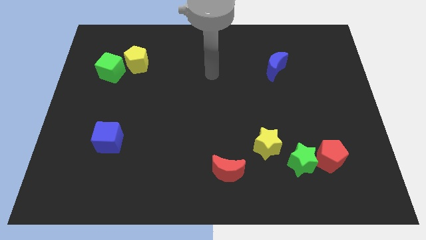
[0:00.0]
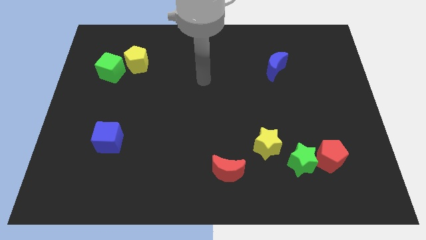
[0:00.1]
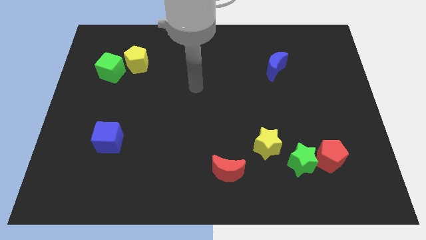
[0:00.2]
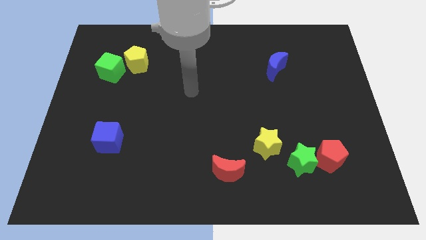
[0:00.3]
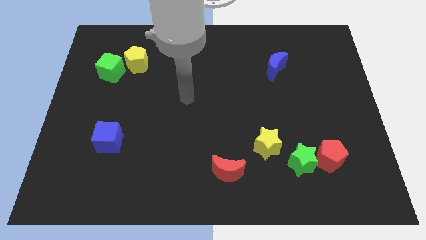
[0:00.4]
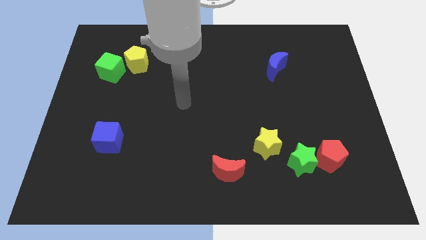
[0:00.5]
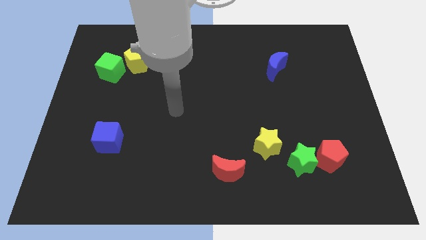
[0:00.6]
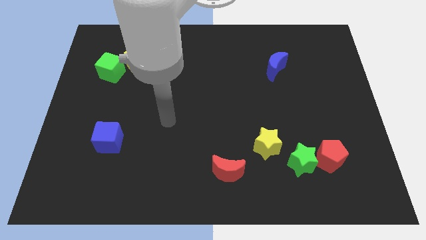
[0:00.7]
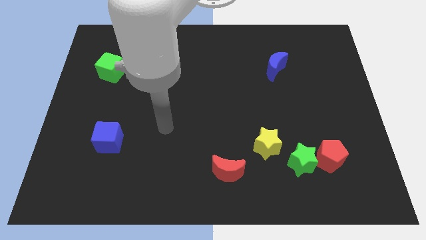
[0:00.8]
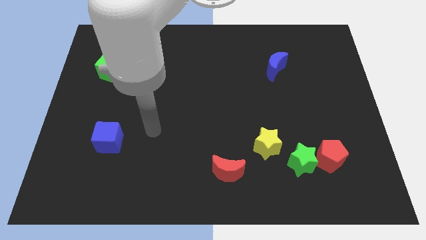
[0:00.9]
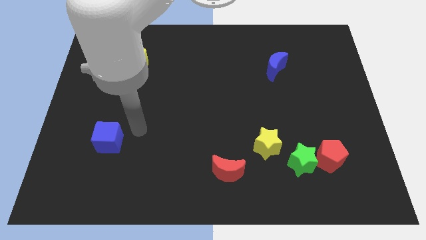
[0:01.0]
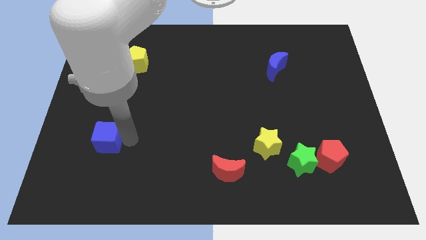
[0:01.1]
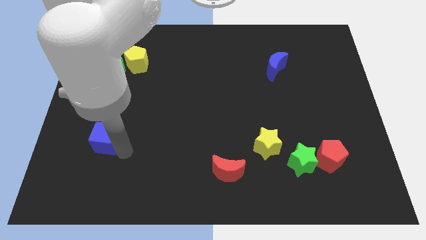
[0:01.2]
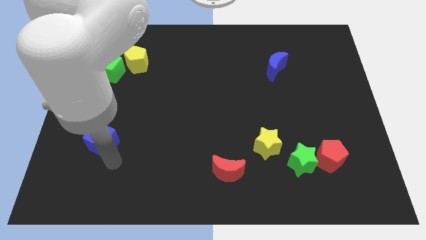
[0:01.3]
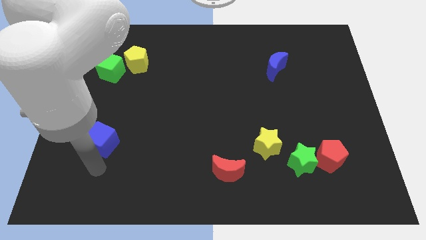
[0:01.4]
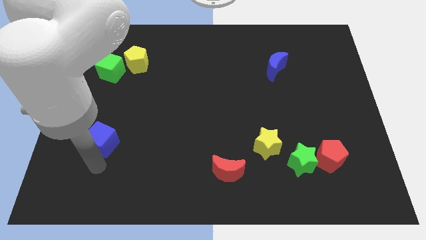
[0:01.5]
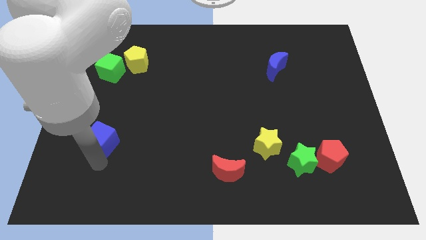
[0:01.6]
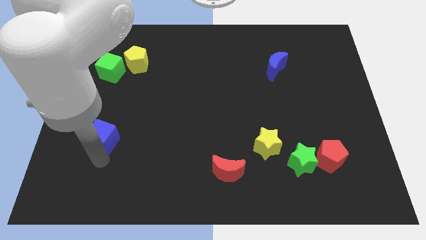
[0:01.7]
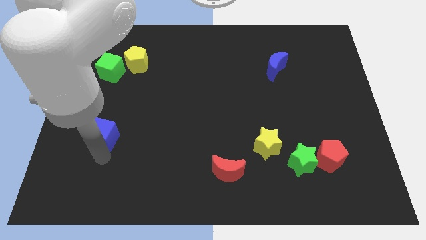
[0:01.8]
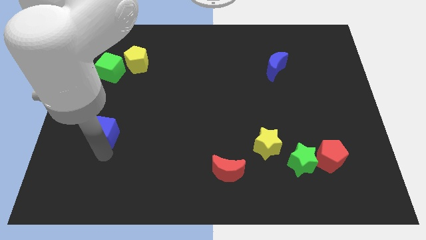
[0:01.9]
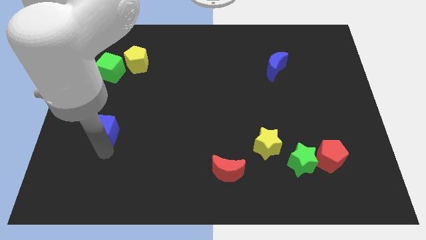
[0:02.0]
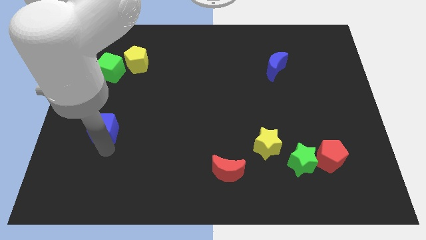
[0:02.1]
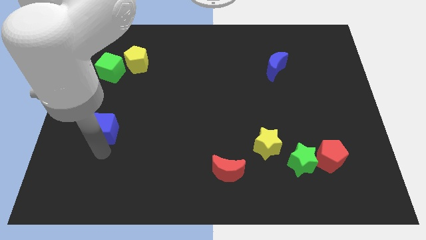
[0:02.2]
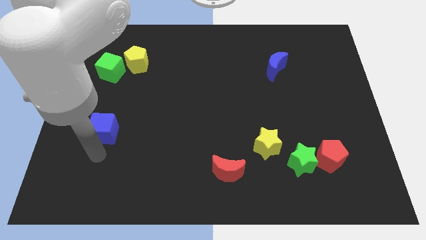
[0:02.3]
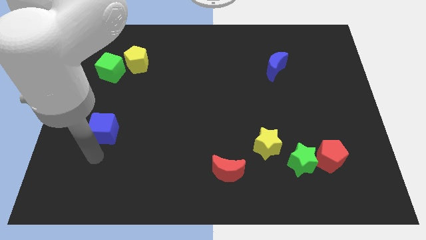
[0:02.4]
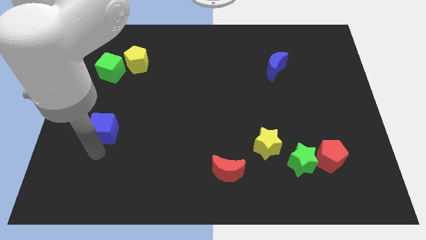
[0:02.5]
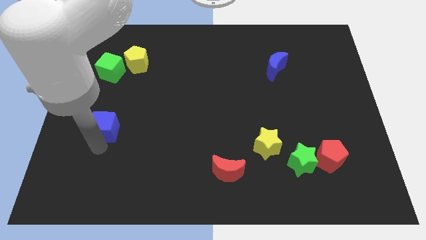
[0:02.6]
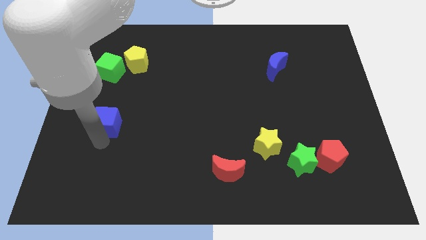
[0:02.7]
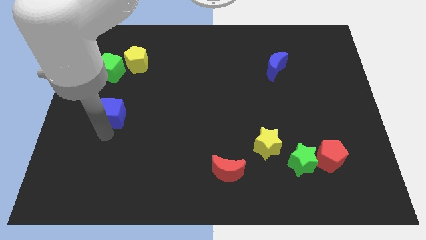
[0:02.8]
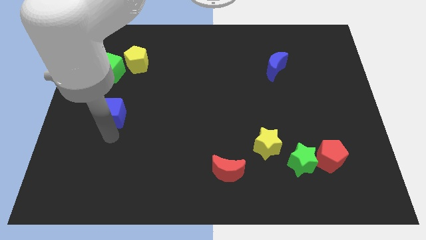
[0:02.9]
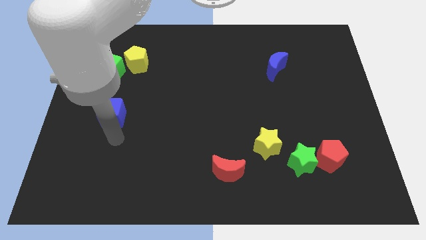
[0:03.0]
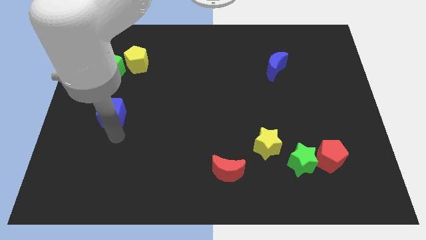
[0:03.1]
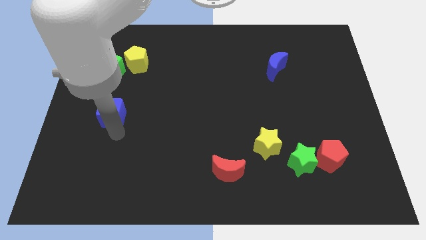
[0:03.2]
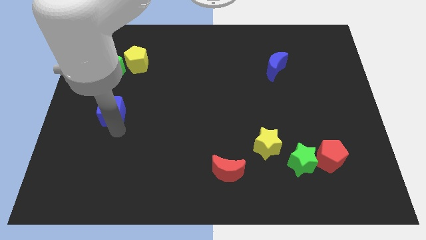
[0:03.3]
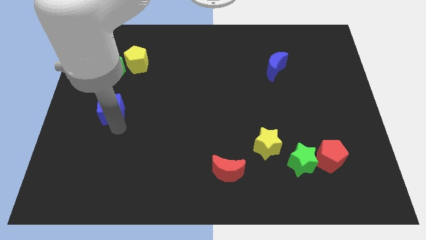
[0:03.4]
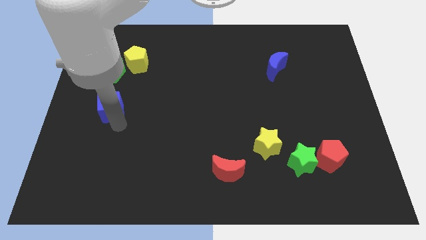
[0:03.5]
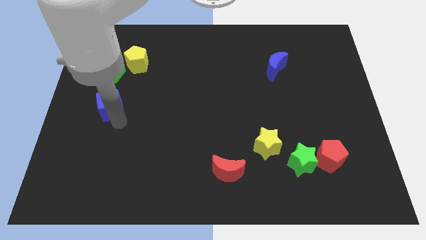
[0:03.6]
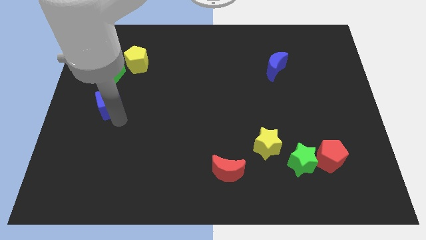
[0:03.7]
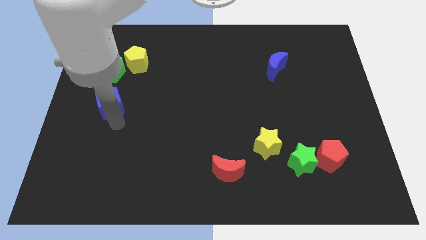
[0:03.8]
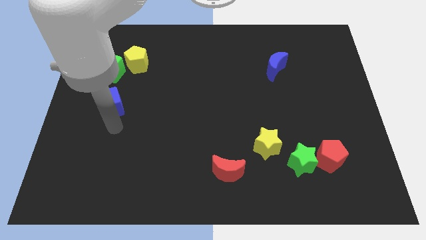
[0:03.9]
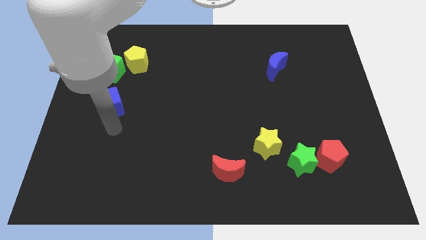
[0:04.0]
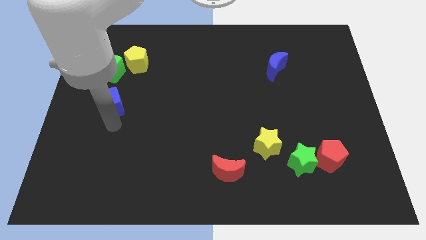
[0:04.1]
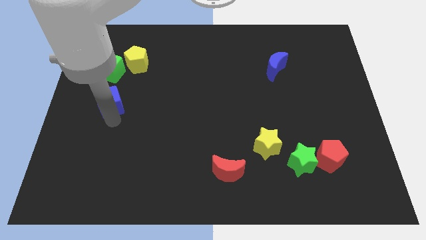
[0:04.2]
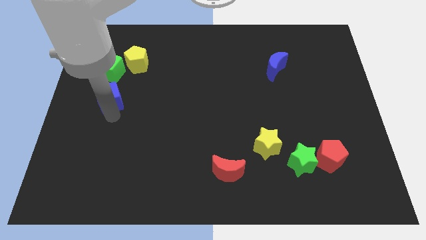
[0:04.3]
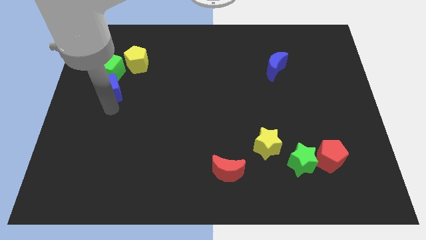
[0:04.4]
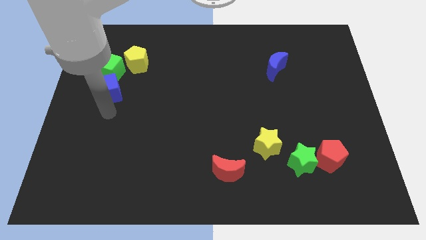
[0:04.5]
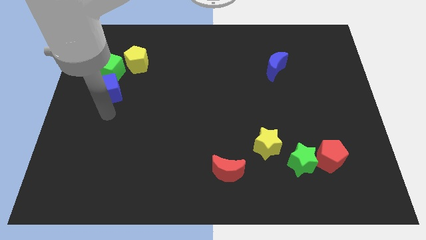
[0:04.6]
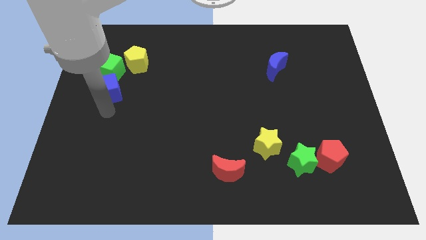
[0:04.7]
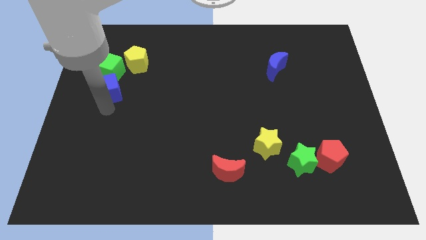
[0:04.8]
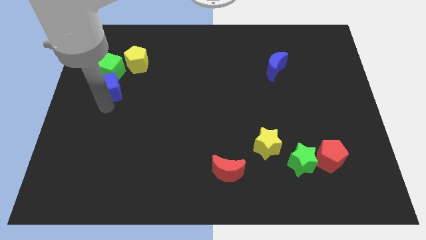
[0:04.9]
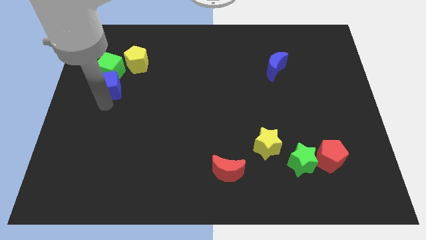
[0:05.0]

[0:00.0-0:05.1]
push the blue cube close to the green cube

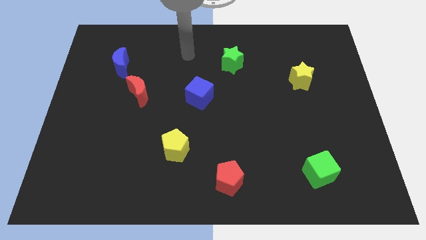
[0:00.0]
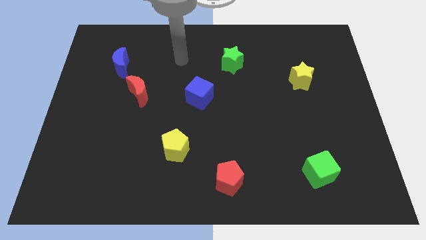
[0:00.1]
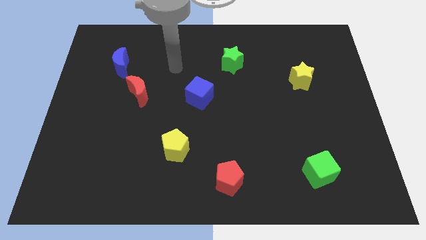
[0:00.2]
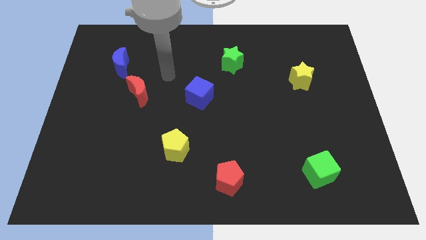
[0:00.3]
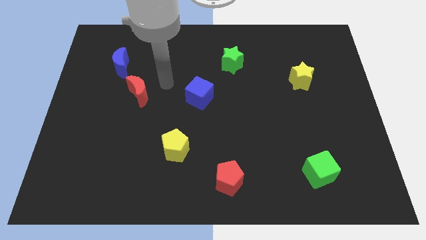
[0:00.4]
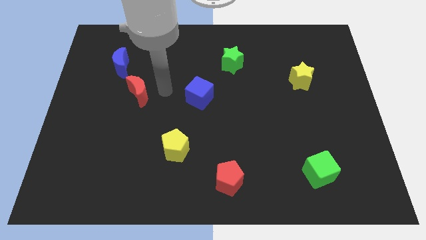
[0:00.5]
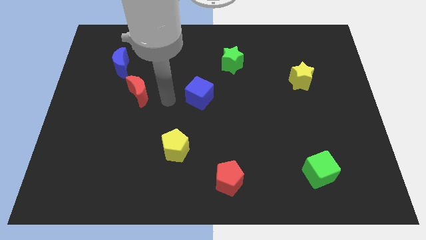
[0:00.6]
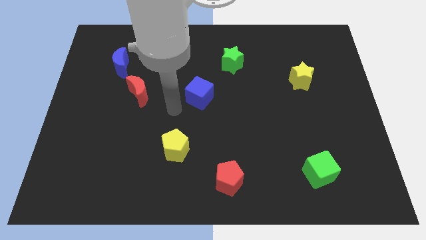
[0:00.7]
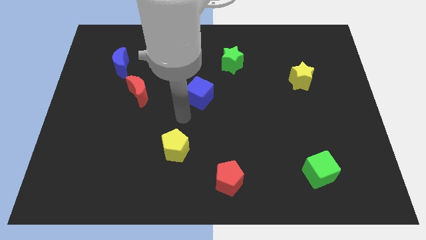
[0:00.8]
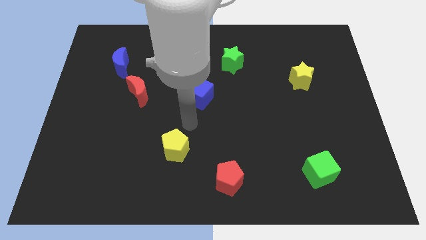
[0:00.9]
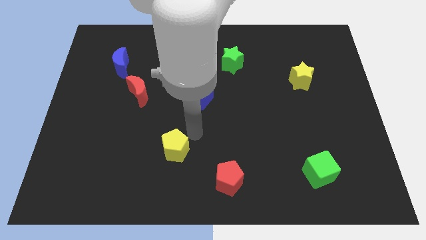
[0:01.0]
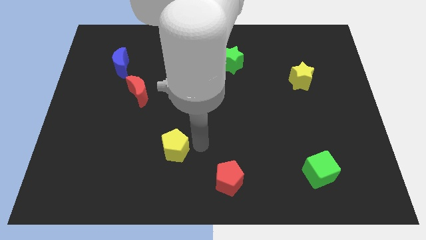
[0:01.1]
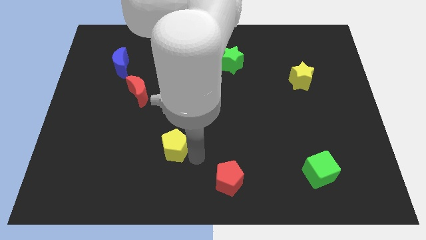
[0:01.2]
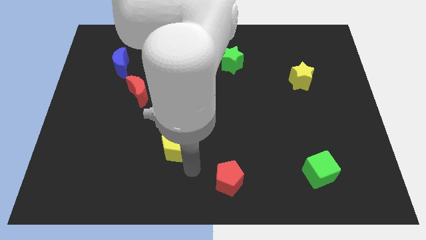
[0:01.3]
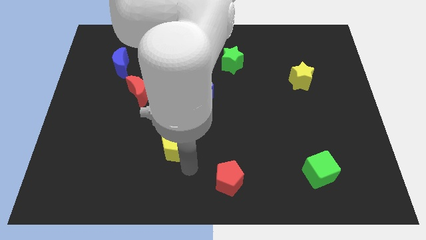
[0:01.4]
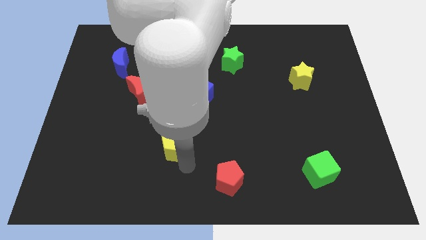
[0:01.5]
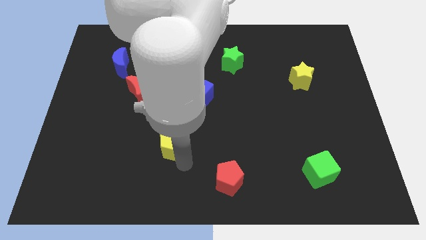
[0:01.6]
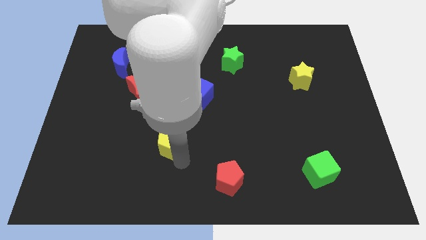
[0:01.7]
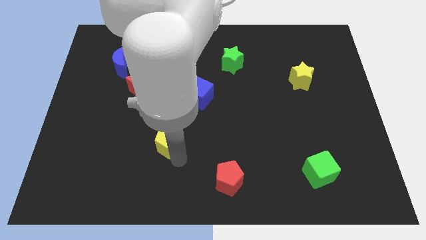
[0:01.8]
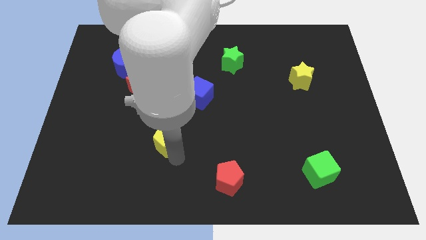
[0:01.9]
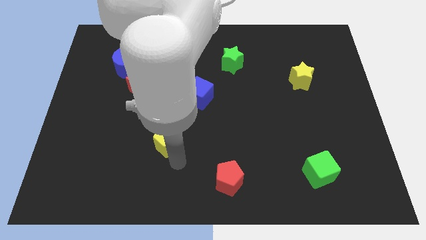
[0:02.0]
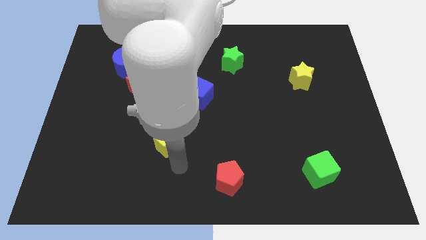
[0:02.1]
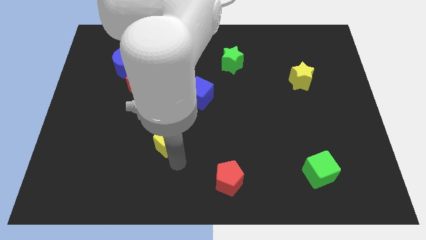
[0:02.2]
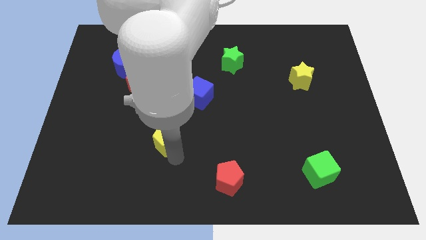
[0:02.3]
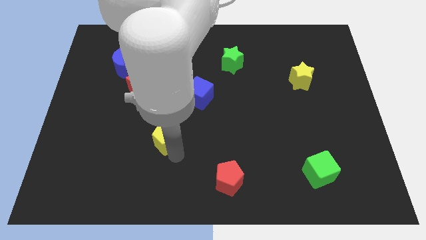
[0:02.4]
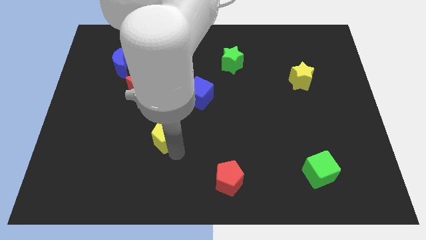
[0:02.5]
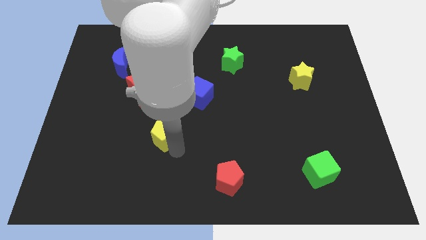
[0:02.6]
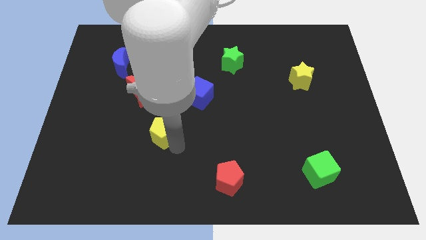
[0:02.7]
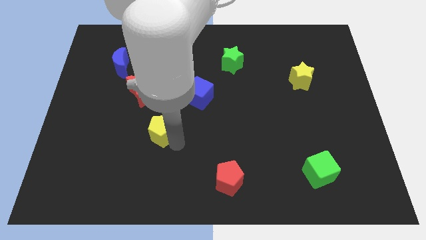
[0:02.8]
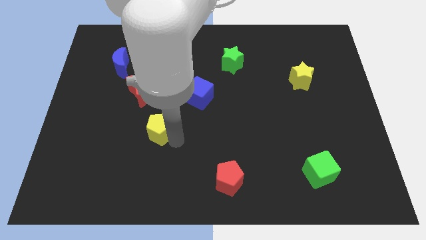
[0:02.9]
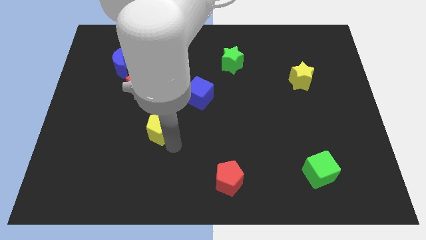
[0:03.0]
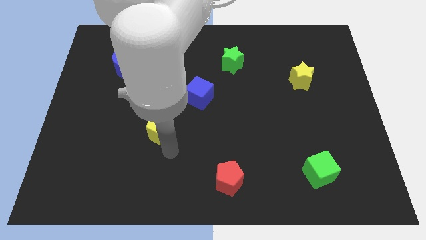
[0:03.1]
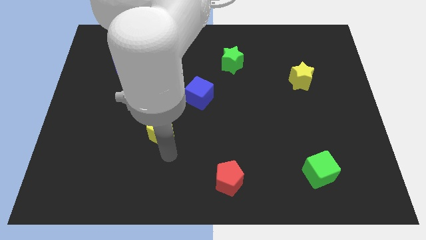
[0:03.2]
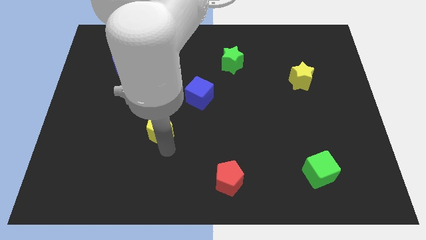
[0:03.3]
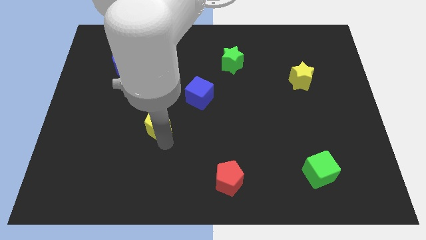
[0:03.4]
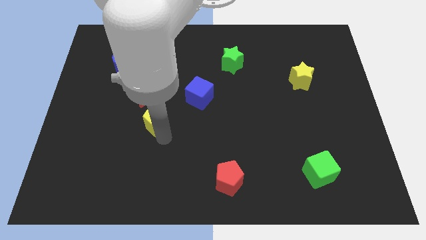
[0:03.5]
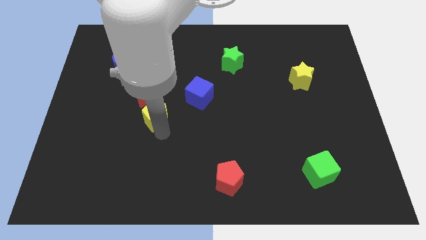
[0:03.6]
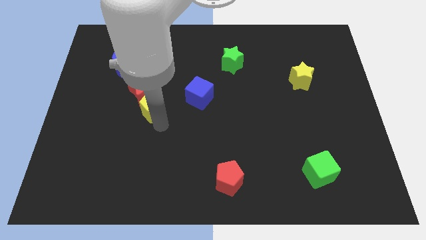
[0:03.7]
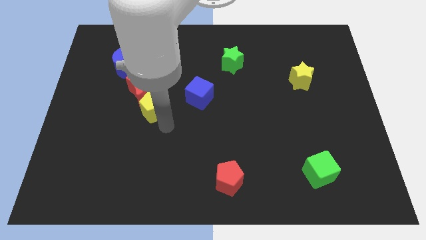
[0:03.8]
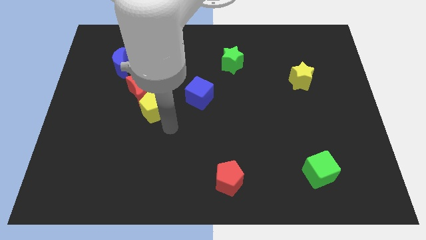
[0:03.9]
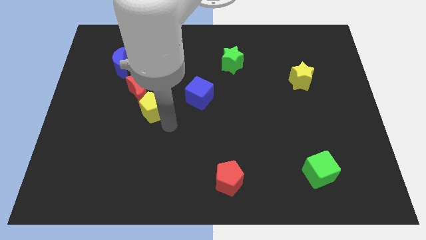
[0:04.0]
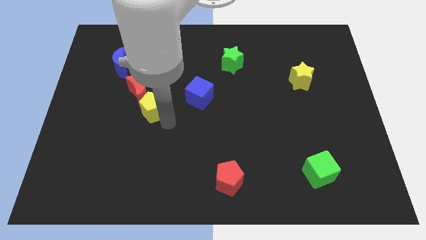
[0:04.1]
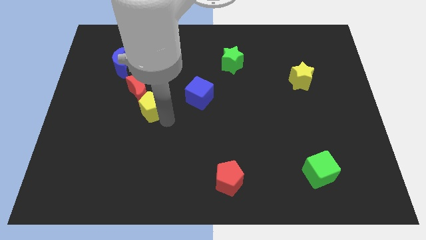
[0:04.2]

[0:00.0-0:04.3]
put the yellow pentagon close to the red moon
